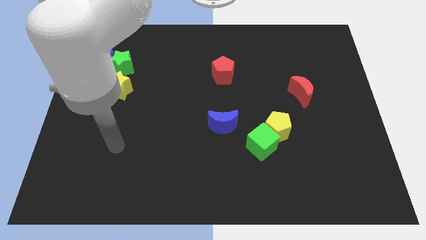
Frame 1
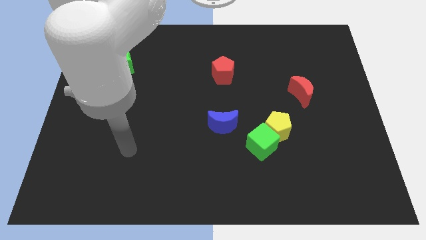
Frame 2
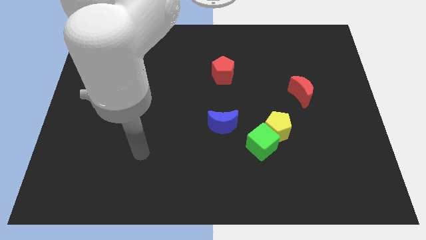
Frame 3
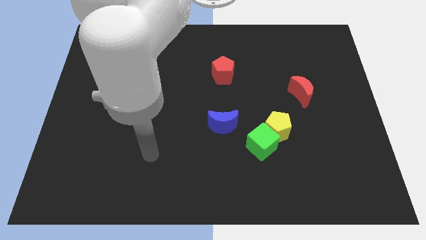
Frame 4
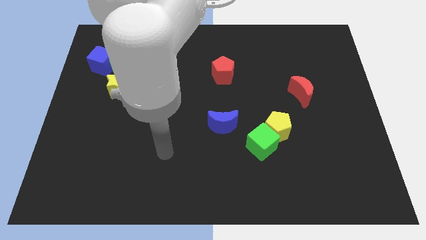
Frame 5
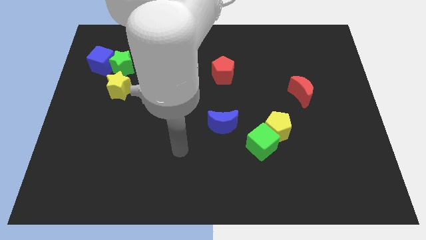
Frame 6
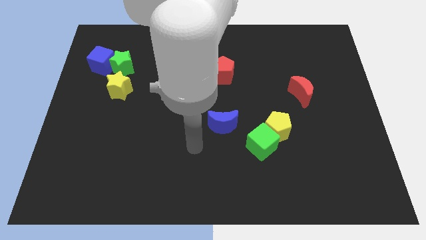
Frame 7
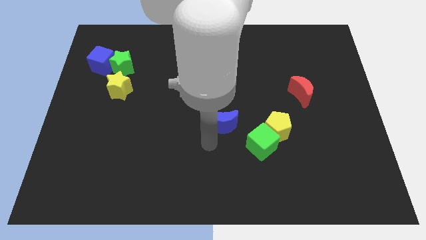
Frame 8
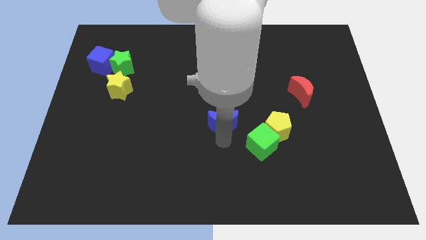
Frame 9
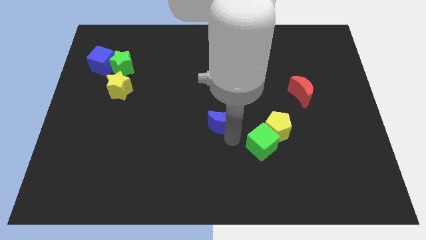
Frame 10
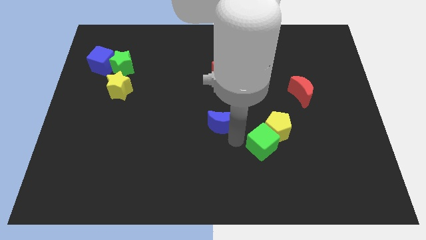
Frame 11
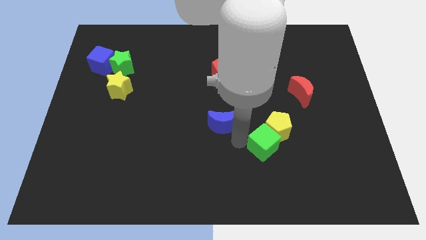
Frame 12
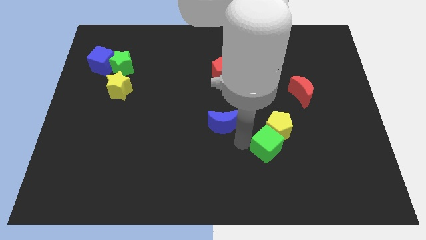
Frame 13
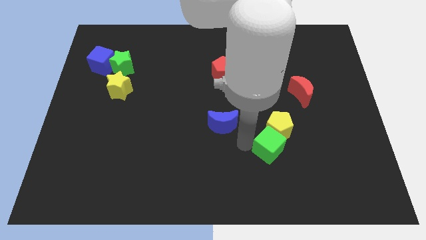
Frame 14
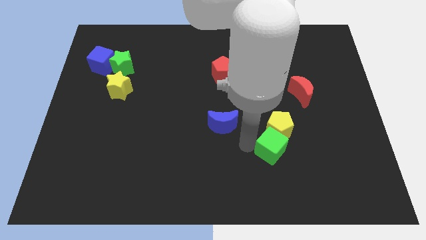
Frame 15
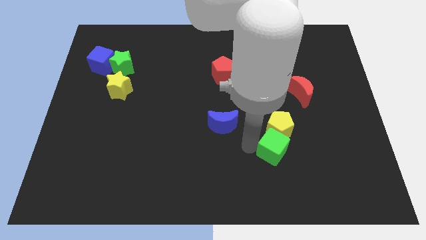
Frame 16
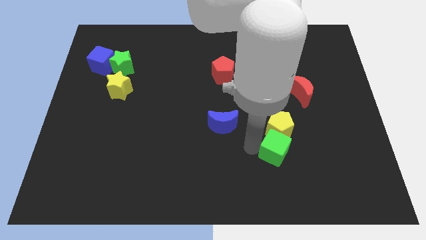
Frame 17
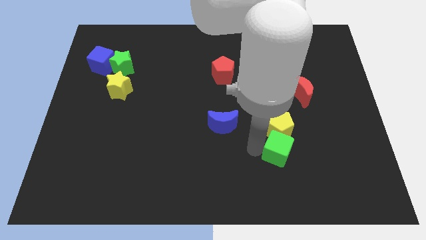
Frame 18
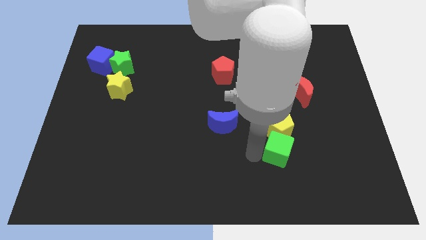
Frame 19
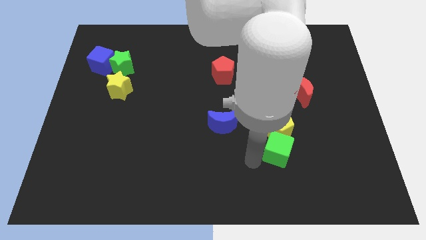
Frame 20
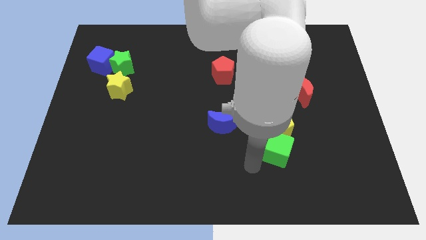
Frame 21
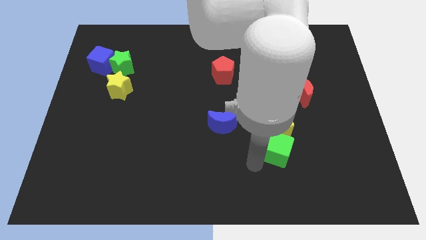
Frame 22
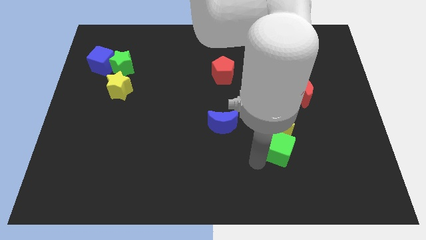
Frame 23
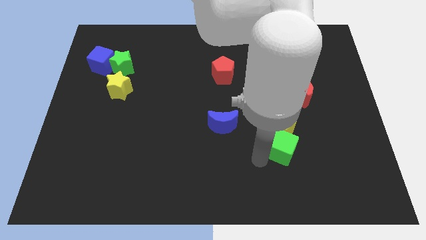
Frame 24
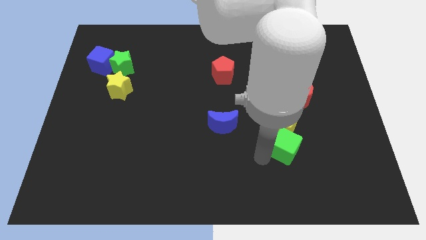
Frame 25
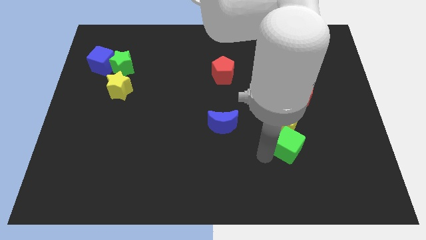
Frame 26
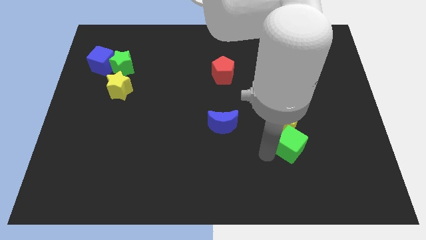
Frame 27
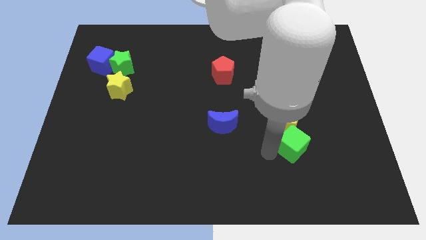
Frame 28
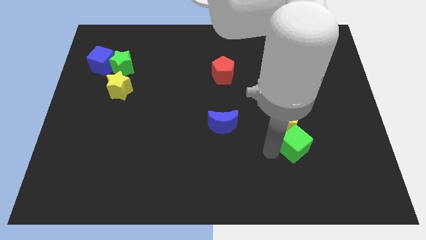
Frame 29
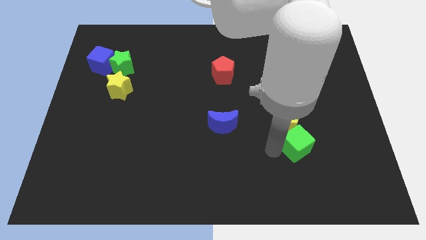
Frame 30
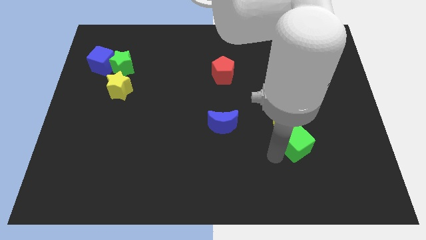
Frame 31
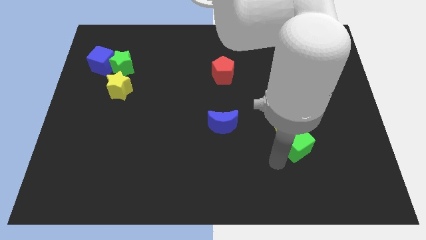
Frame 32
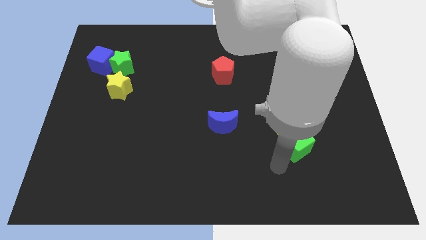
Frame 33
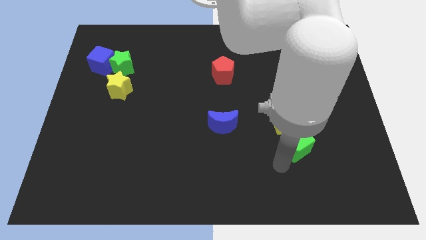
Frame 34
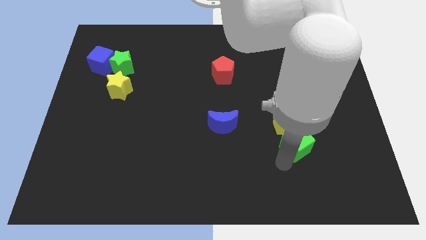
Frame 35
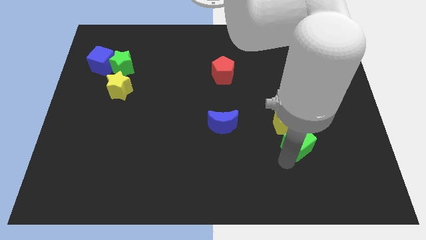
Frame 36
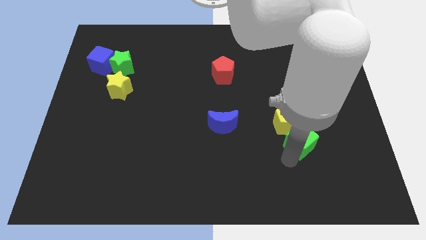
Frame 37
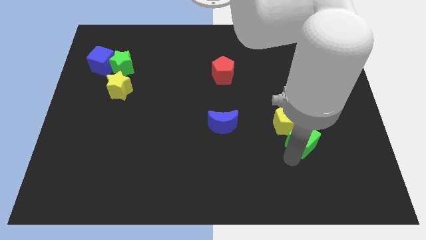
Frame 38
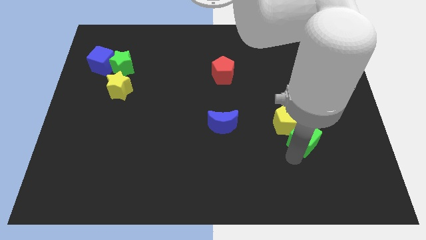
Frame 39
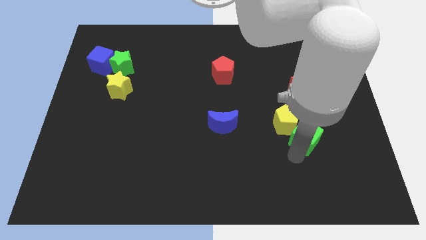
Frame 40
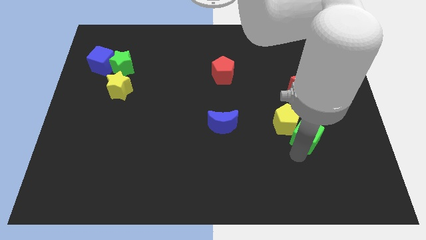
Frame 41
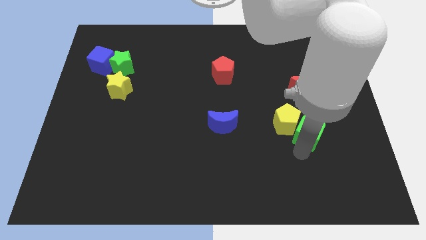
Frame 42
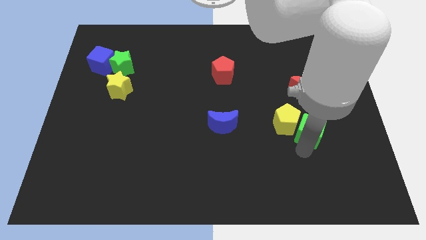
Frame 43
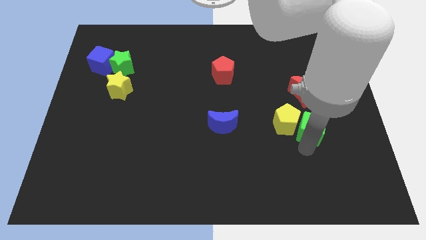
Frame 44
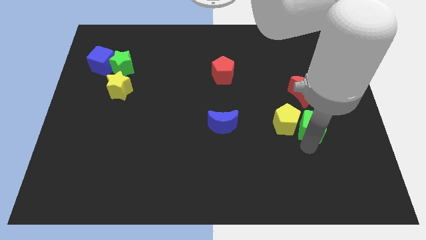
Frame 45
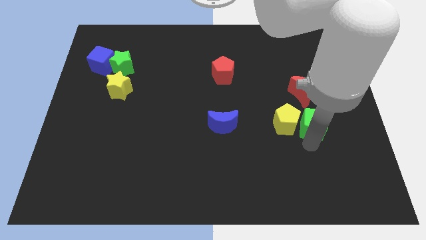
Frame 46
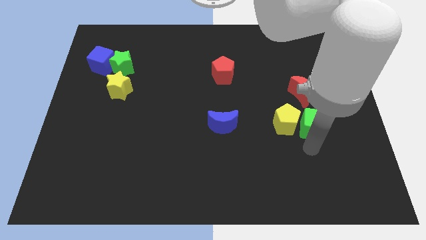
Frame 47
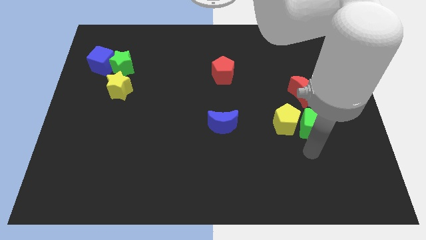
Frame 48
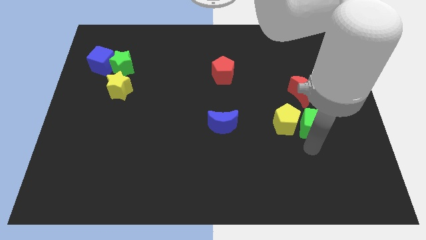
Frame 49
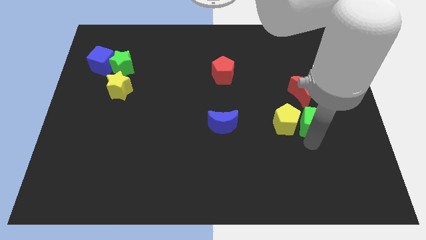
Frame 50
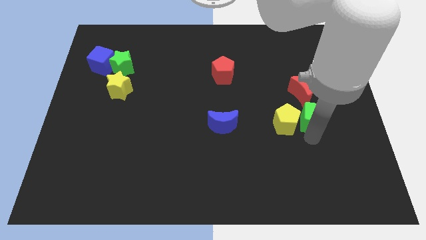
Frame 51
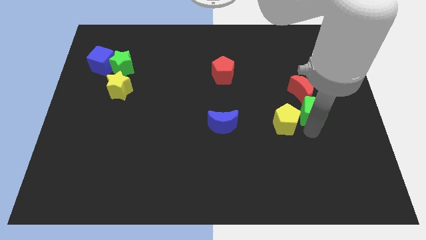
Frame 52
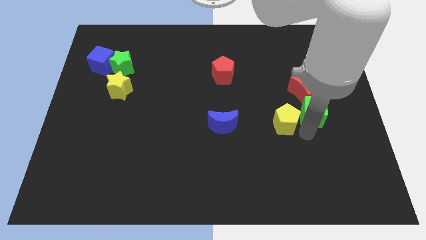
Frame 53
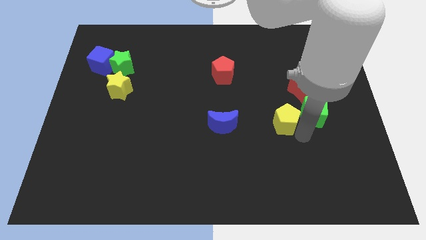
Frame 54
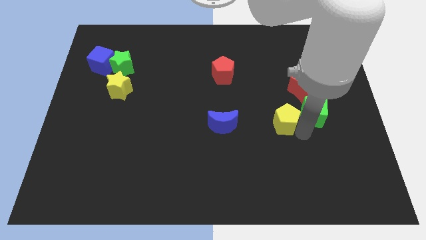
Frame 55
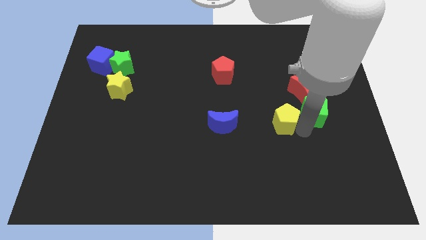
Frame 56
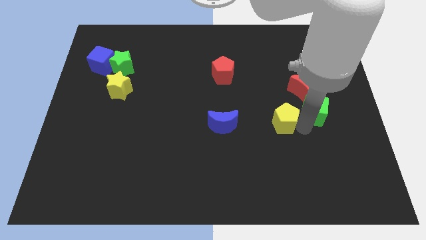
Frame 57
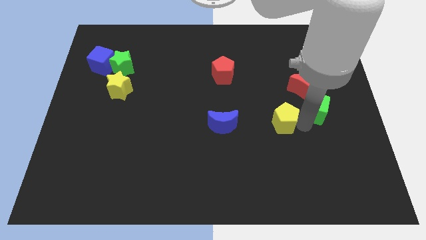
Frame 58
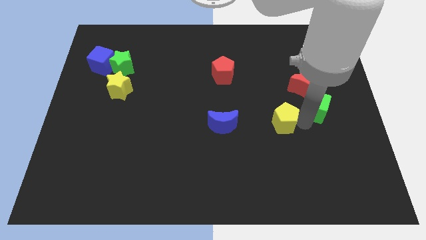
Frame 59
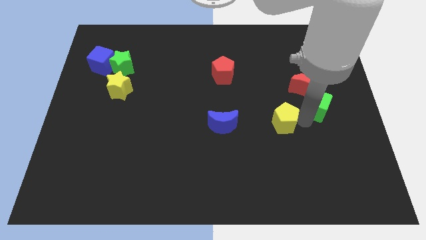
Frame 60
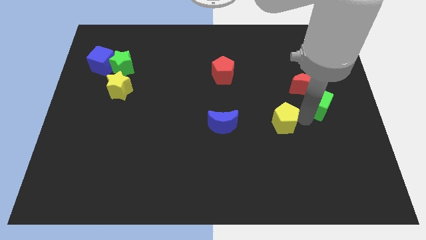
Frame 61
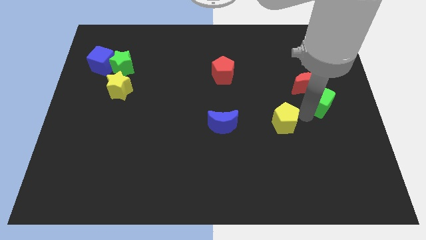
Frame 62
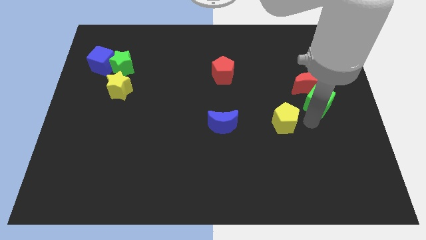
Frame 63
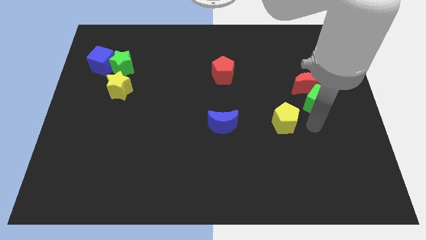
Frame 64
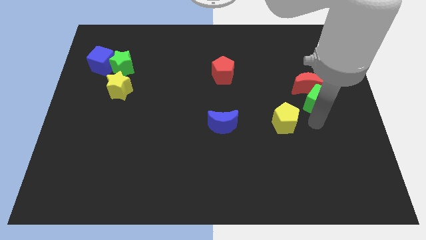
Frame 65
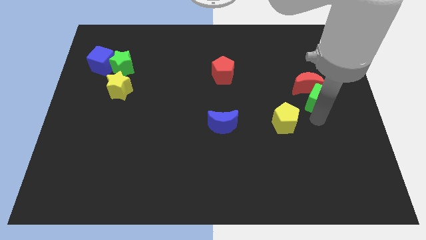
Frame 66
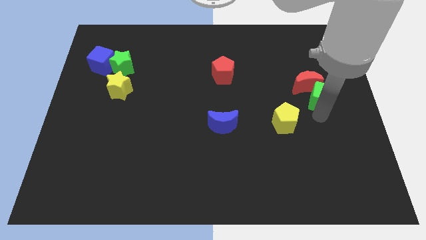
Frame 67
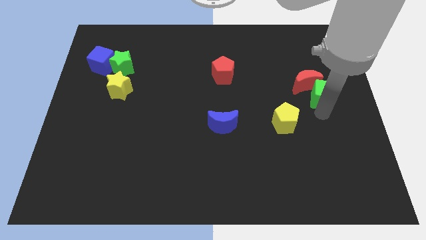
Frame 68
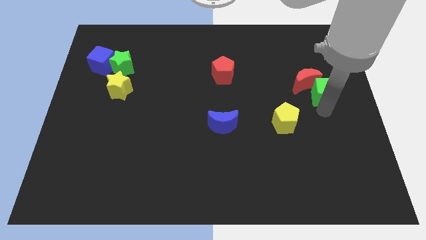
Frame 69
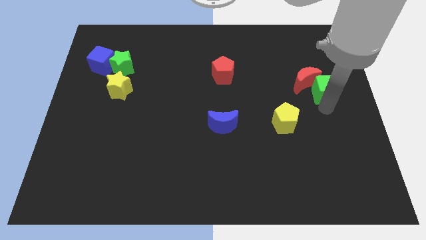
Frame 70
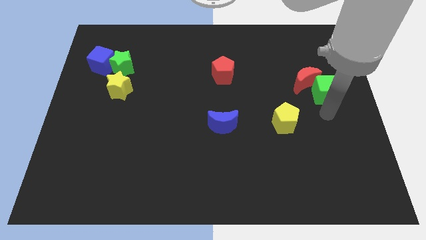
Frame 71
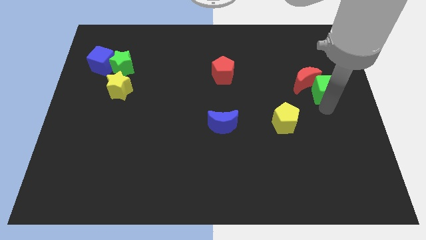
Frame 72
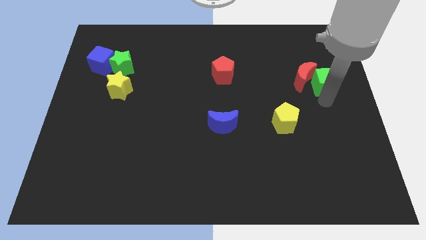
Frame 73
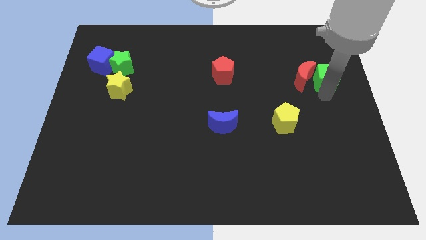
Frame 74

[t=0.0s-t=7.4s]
slide the green cube to the top right side of the red moon

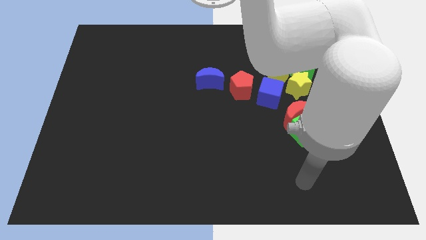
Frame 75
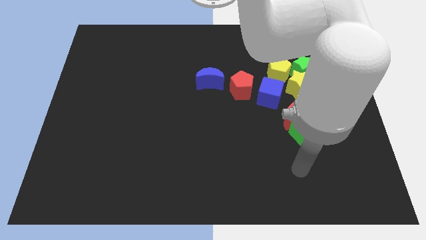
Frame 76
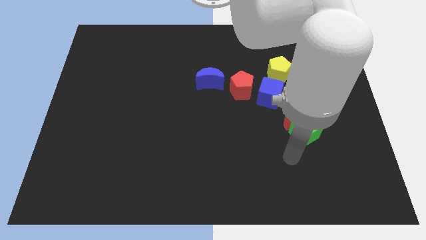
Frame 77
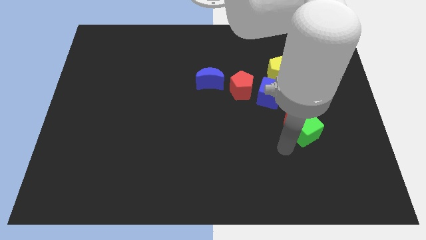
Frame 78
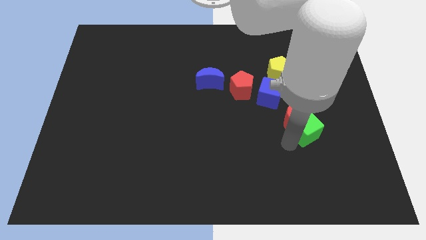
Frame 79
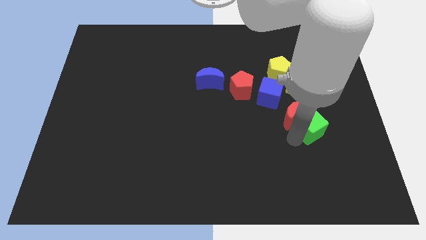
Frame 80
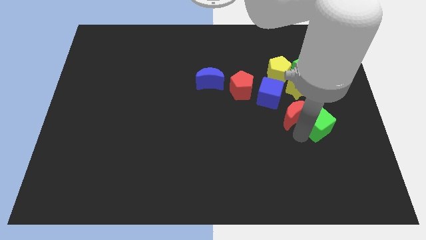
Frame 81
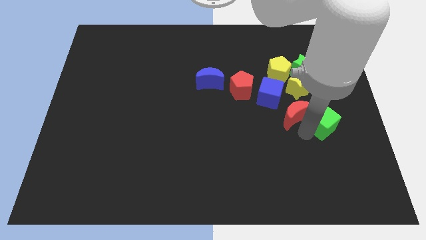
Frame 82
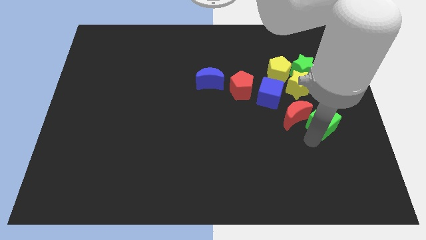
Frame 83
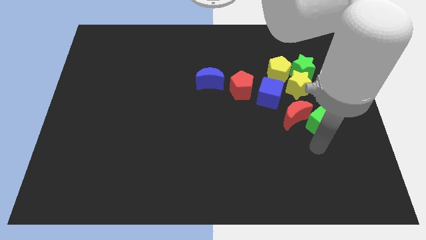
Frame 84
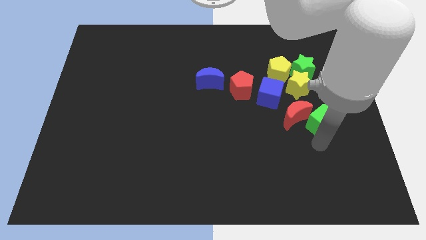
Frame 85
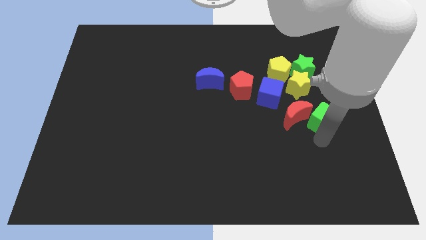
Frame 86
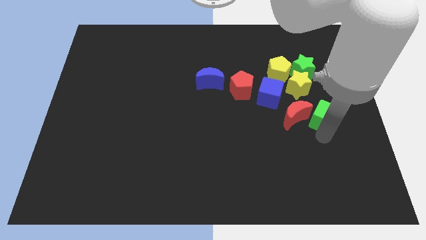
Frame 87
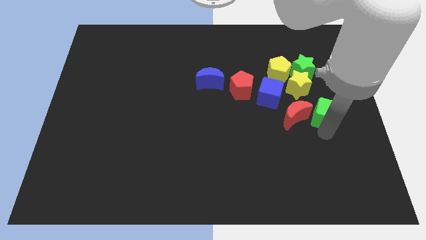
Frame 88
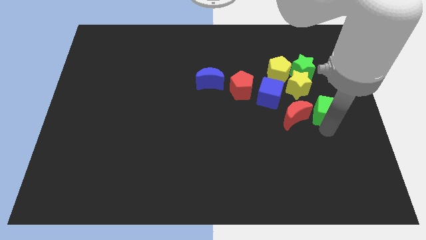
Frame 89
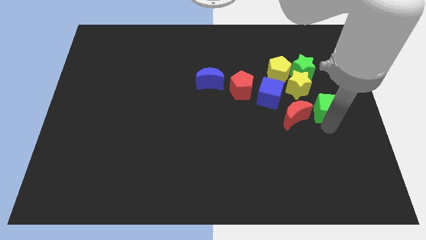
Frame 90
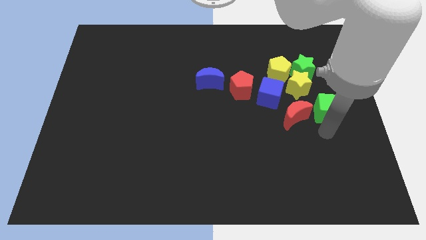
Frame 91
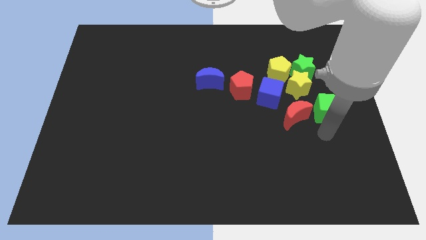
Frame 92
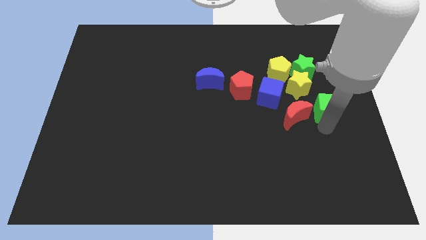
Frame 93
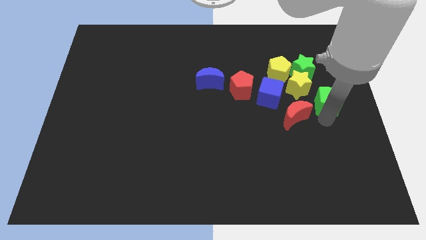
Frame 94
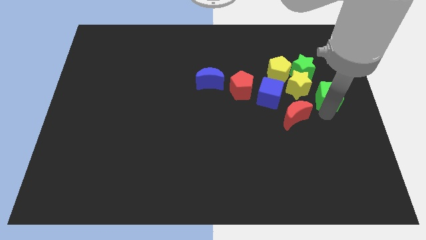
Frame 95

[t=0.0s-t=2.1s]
push the green cube to the bottom right side of the green star
